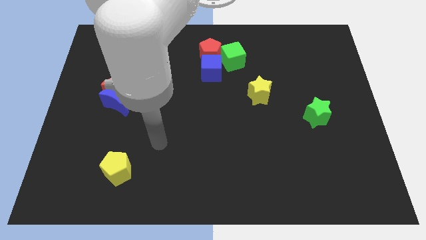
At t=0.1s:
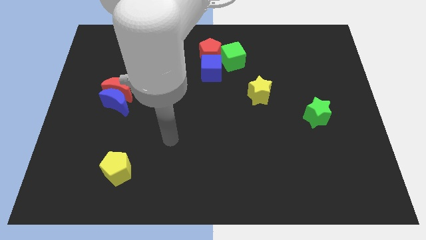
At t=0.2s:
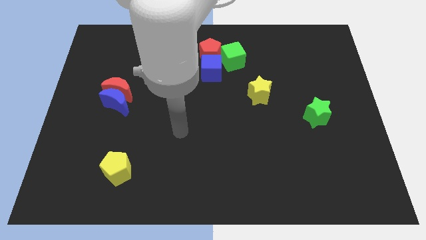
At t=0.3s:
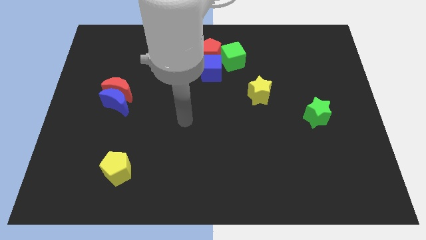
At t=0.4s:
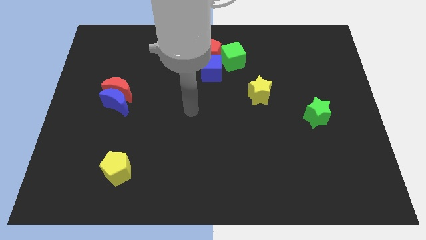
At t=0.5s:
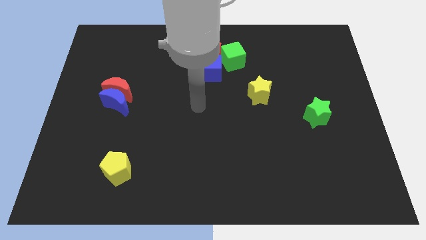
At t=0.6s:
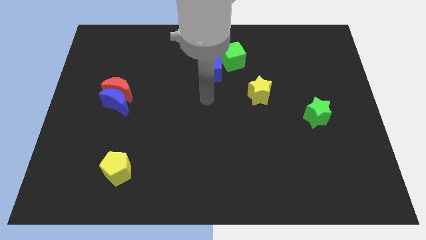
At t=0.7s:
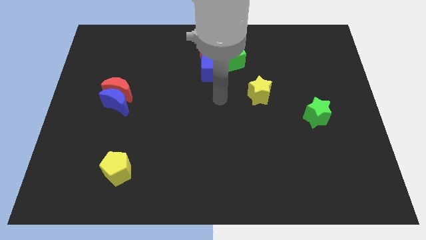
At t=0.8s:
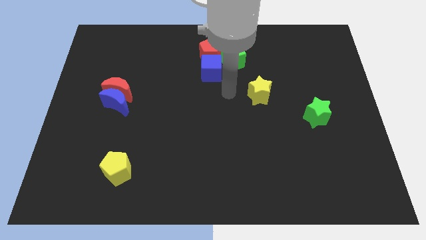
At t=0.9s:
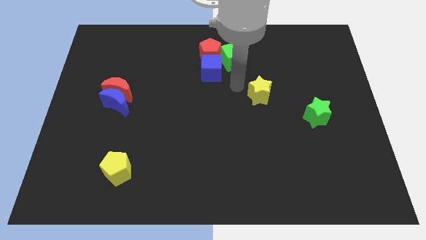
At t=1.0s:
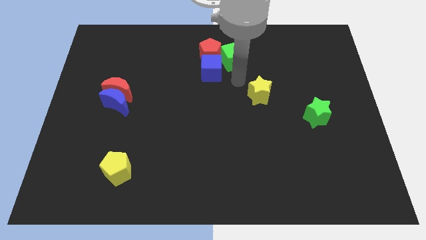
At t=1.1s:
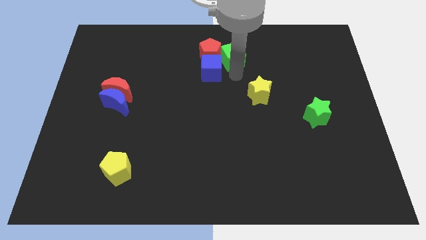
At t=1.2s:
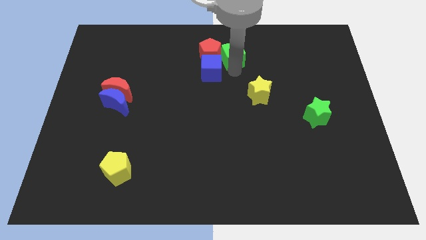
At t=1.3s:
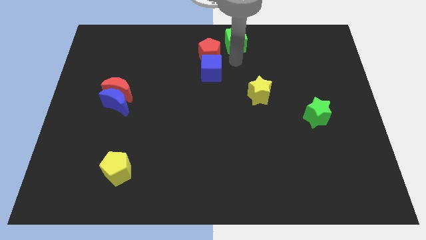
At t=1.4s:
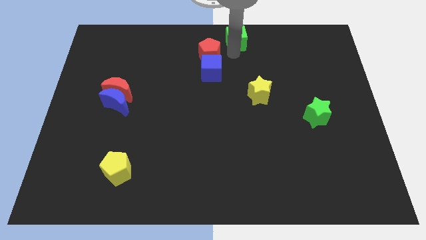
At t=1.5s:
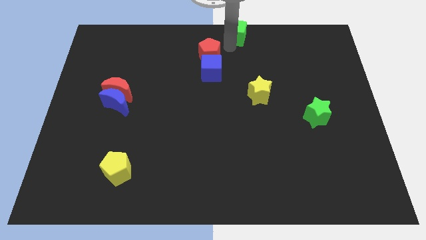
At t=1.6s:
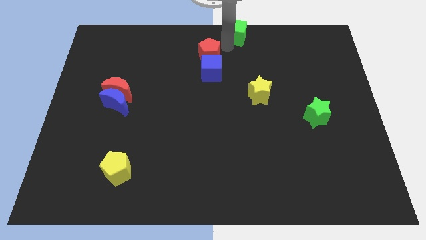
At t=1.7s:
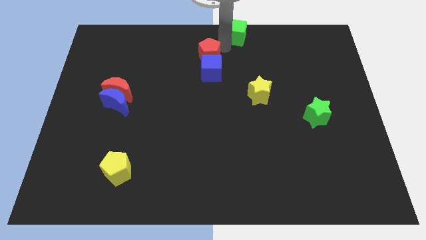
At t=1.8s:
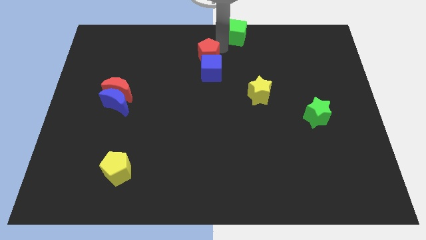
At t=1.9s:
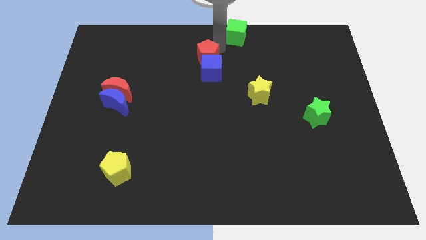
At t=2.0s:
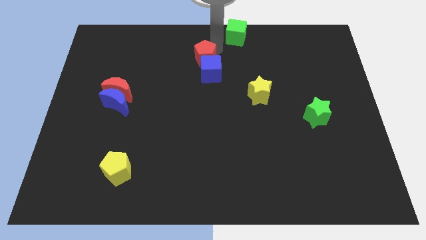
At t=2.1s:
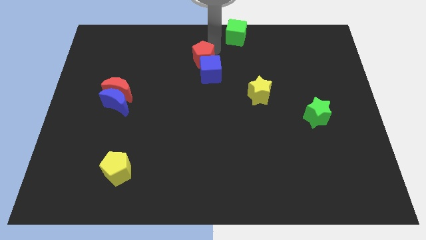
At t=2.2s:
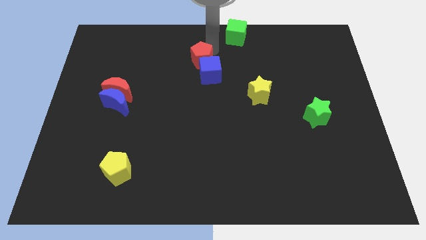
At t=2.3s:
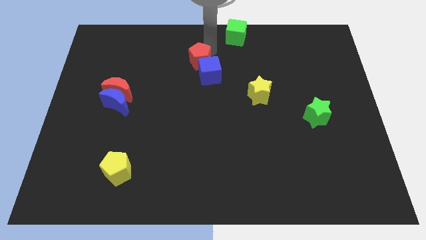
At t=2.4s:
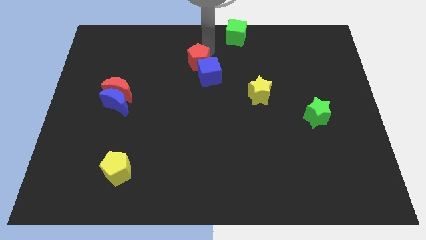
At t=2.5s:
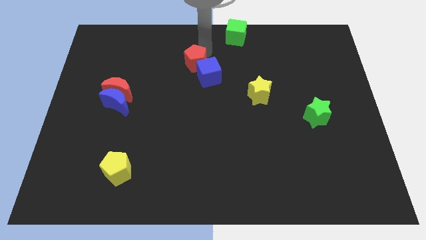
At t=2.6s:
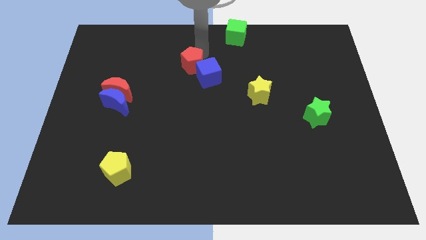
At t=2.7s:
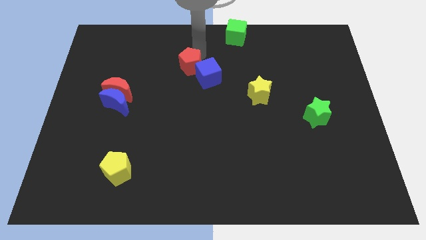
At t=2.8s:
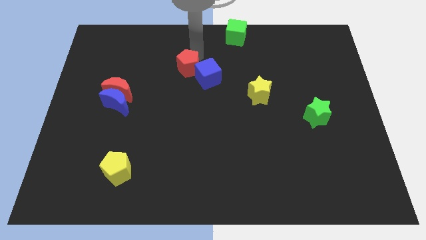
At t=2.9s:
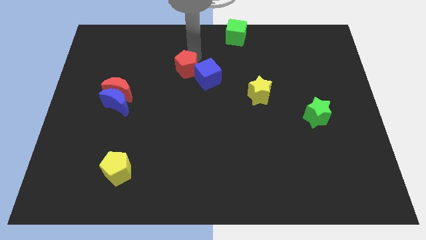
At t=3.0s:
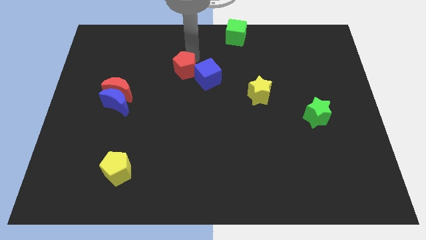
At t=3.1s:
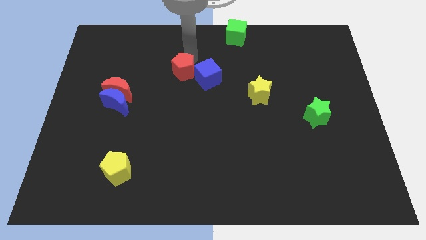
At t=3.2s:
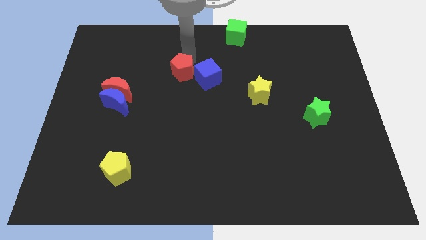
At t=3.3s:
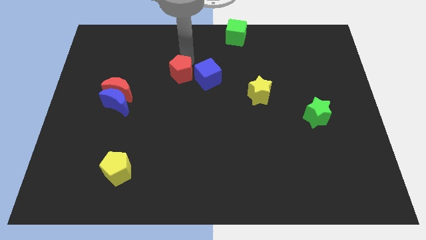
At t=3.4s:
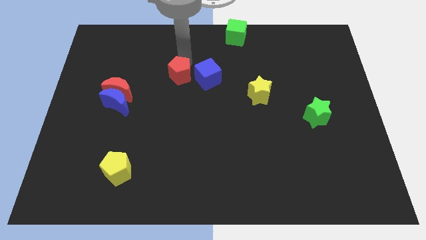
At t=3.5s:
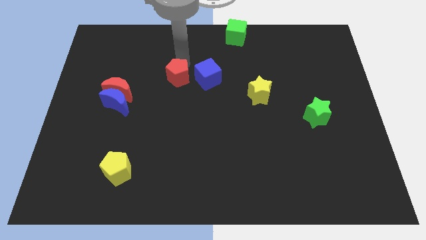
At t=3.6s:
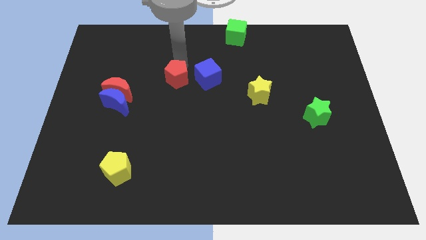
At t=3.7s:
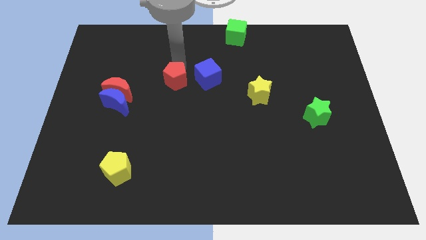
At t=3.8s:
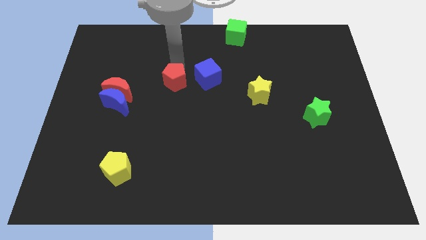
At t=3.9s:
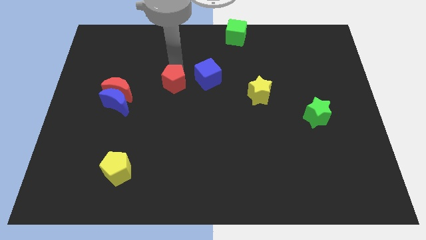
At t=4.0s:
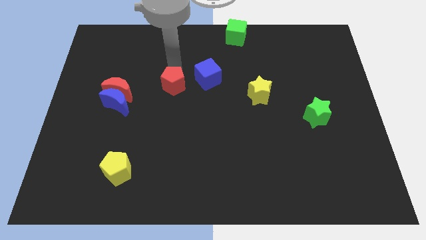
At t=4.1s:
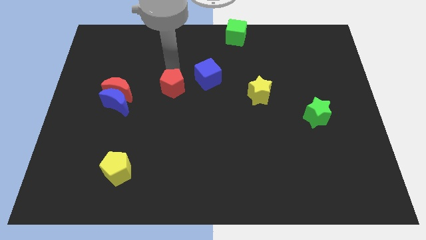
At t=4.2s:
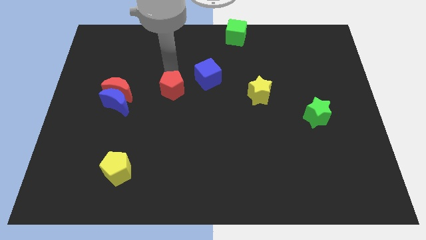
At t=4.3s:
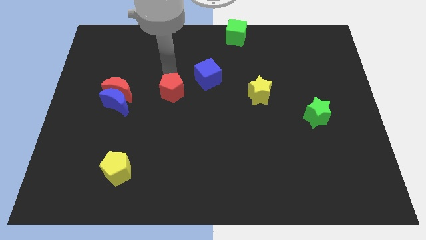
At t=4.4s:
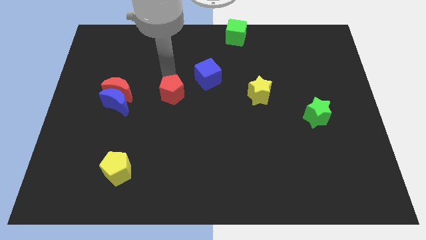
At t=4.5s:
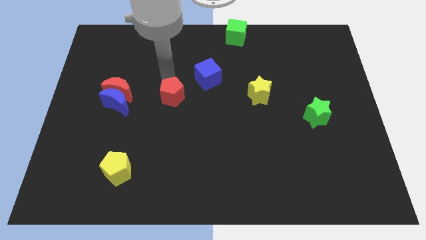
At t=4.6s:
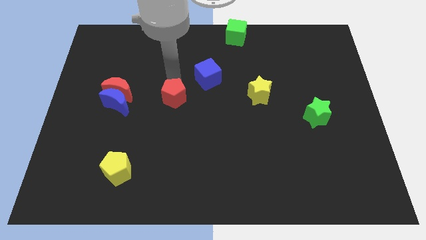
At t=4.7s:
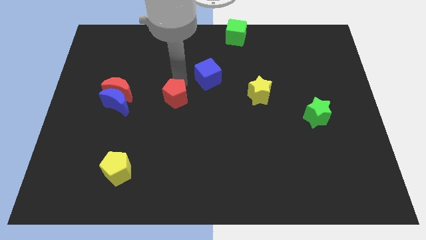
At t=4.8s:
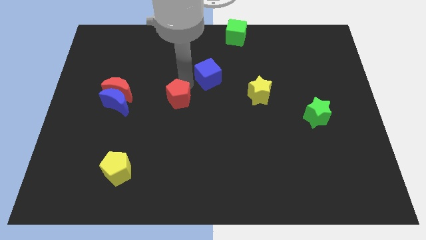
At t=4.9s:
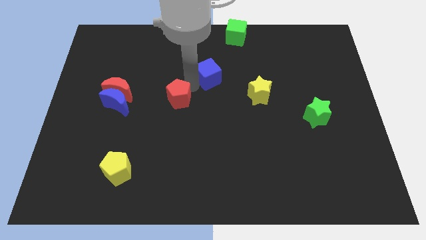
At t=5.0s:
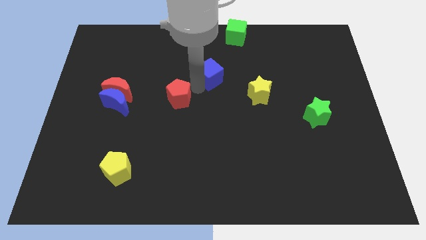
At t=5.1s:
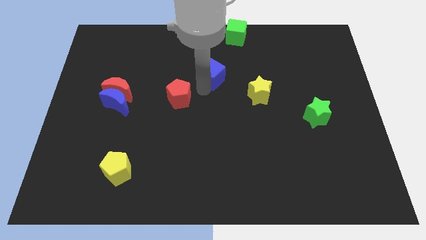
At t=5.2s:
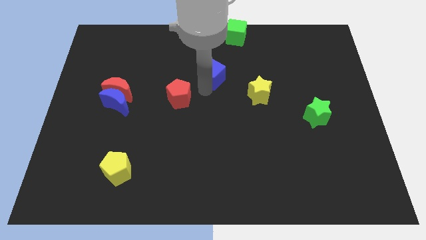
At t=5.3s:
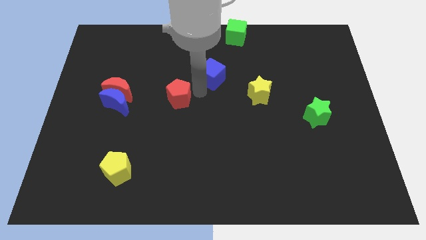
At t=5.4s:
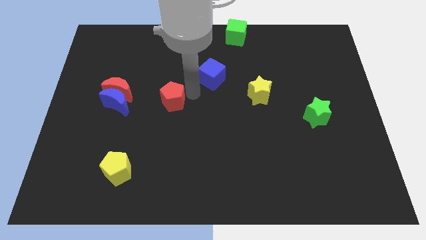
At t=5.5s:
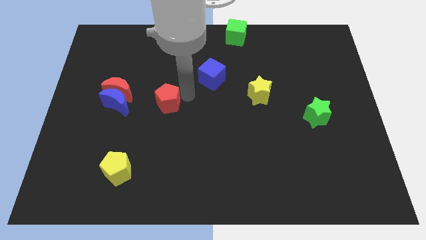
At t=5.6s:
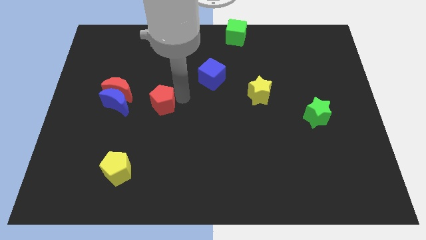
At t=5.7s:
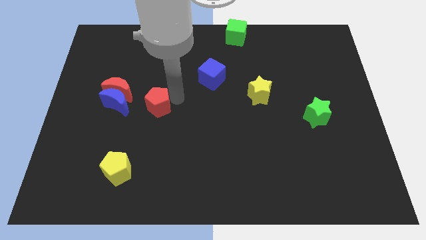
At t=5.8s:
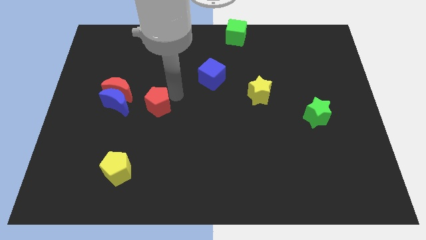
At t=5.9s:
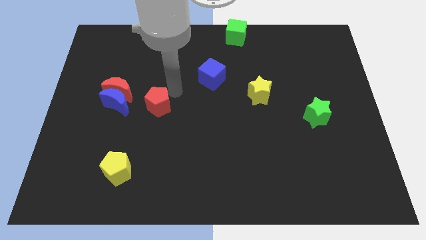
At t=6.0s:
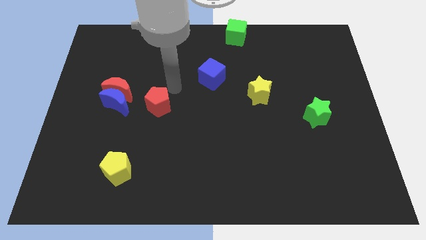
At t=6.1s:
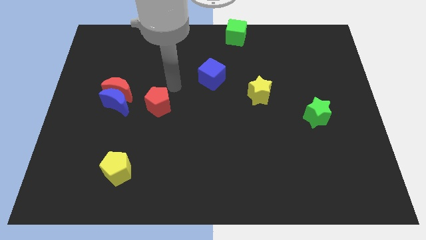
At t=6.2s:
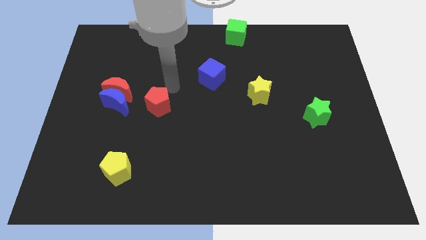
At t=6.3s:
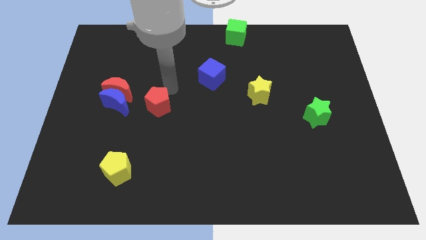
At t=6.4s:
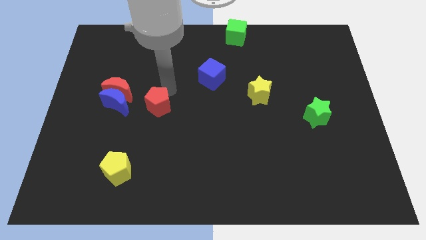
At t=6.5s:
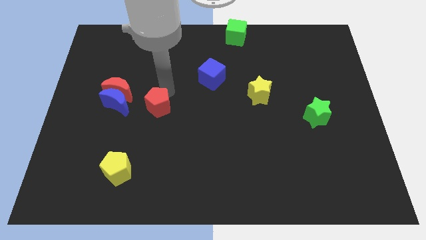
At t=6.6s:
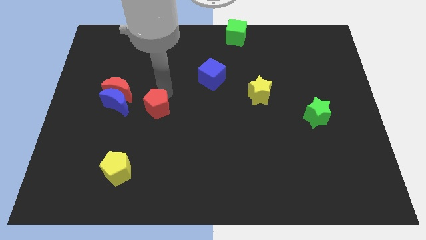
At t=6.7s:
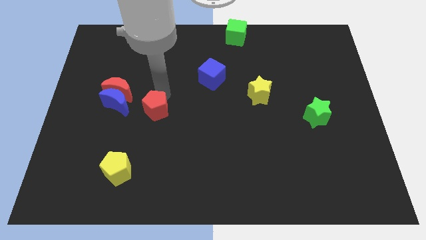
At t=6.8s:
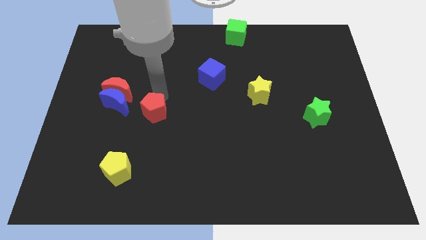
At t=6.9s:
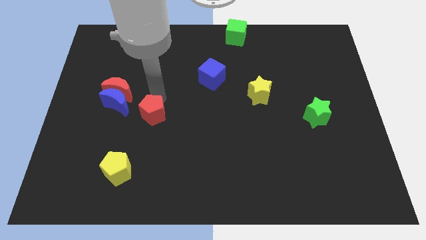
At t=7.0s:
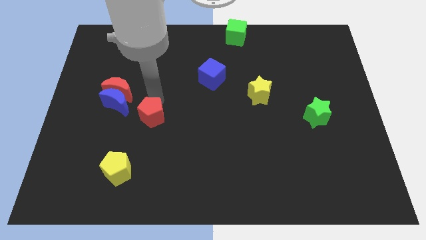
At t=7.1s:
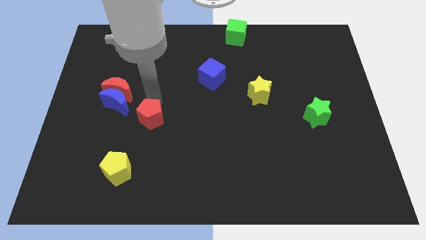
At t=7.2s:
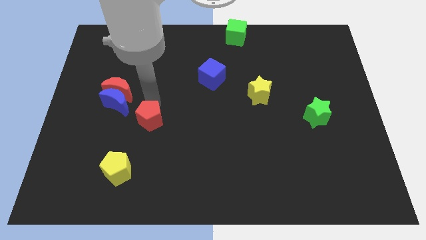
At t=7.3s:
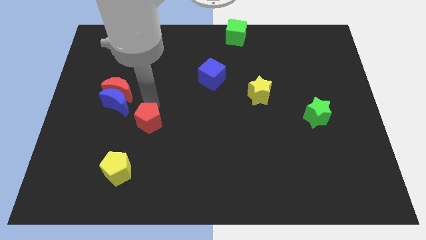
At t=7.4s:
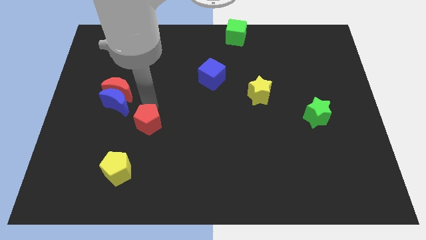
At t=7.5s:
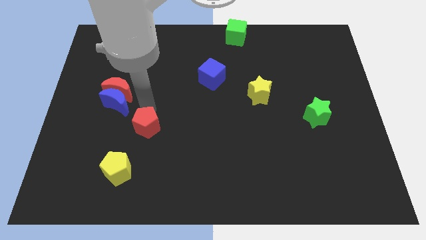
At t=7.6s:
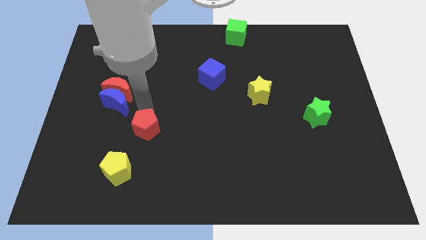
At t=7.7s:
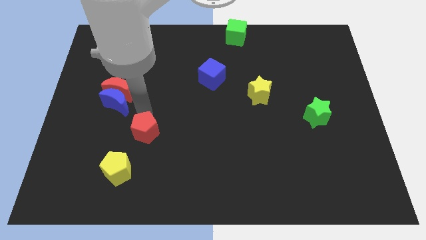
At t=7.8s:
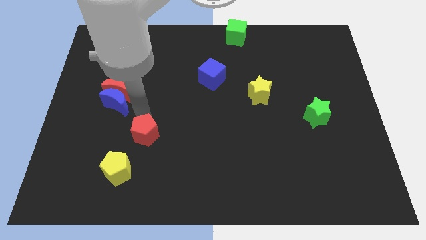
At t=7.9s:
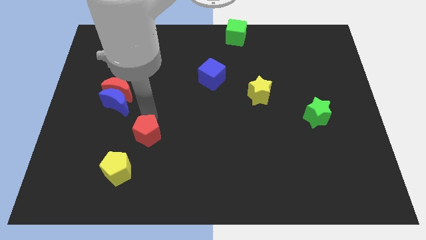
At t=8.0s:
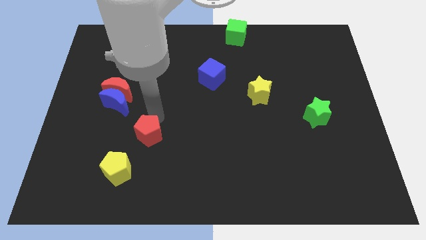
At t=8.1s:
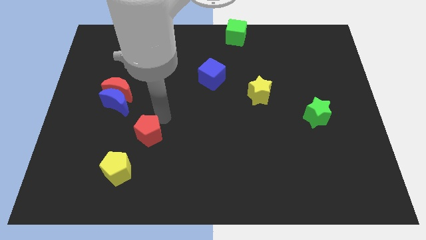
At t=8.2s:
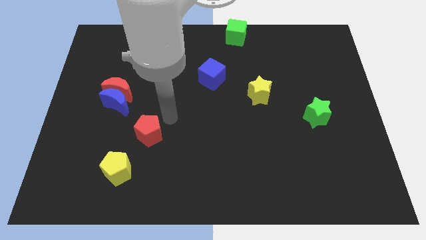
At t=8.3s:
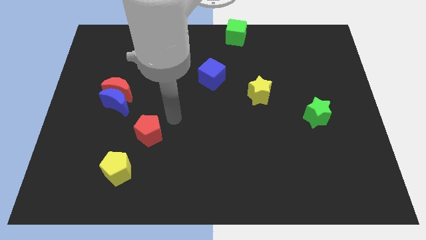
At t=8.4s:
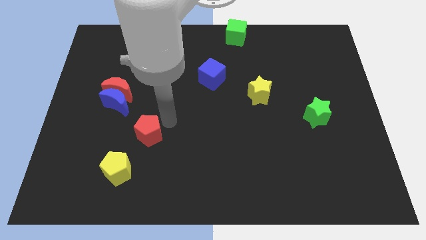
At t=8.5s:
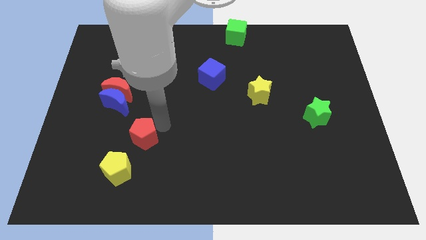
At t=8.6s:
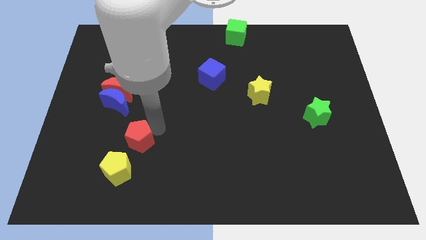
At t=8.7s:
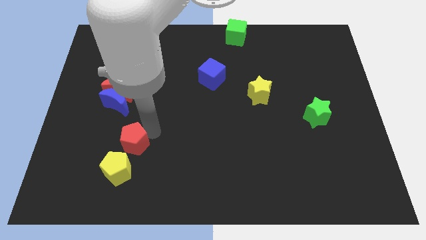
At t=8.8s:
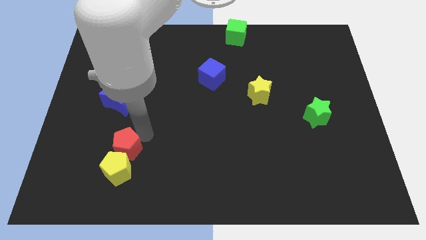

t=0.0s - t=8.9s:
put the red pentagon towards the yellow pentagon
